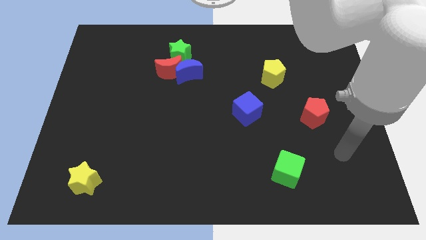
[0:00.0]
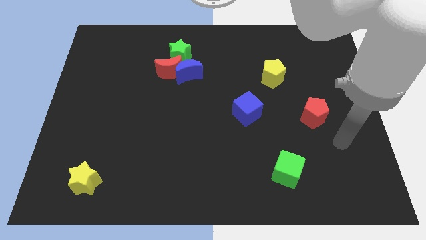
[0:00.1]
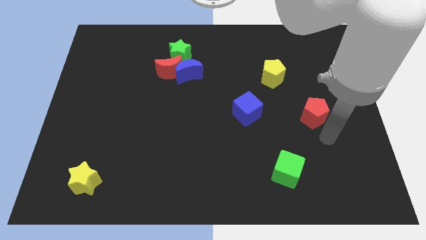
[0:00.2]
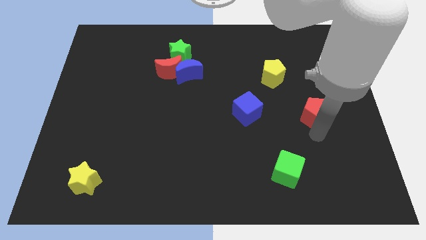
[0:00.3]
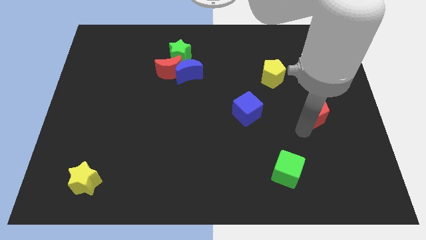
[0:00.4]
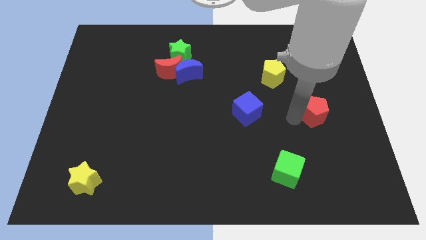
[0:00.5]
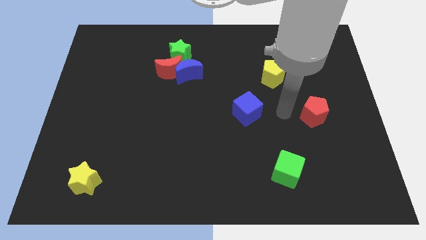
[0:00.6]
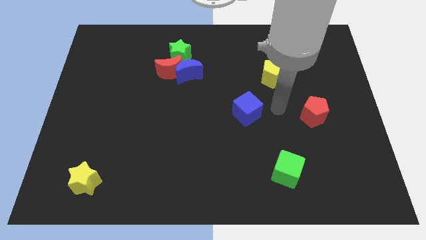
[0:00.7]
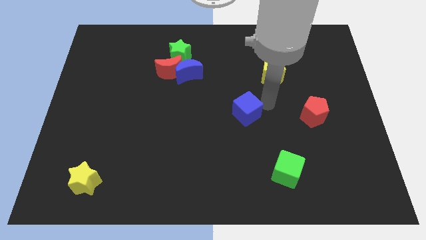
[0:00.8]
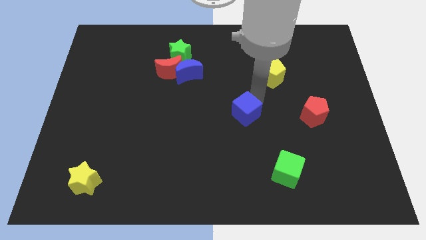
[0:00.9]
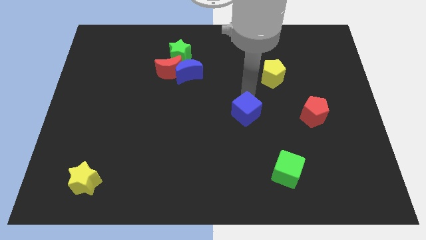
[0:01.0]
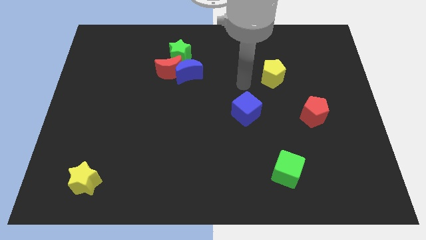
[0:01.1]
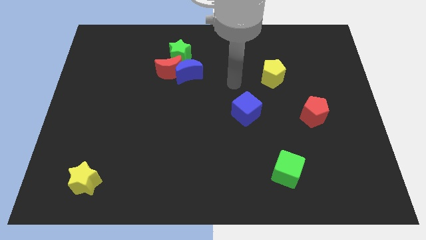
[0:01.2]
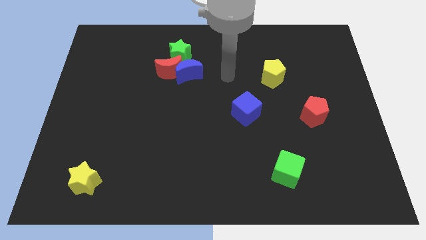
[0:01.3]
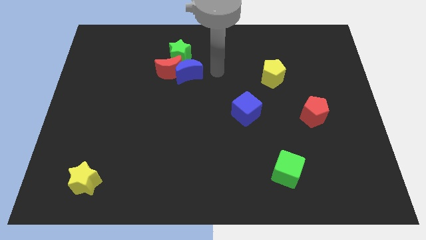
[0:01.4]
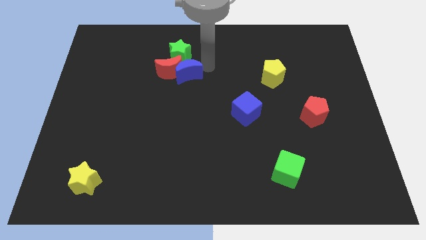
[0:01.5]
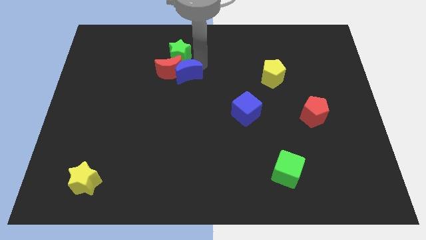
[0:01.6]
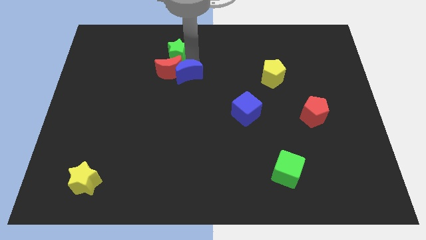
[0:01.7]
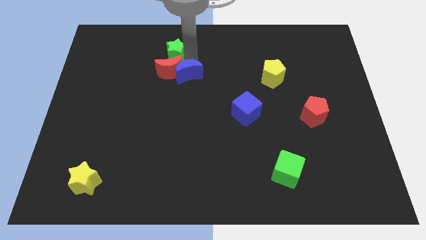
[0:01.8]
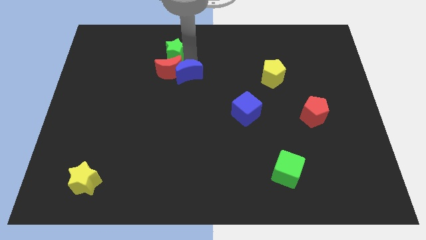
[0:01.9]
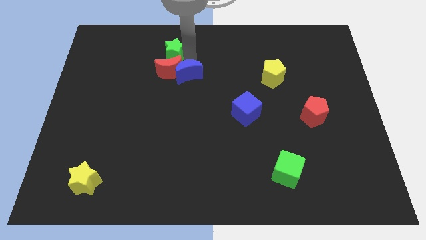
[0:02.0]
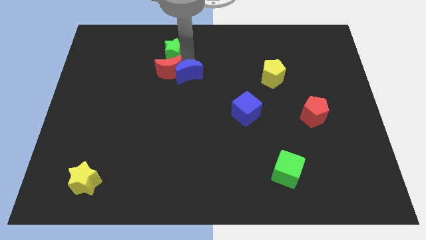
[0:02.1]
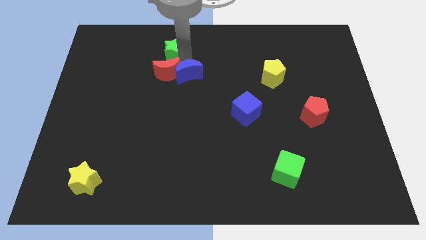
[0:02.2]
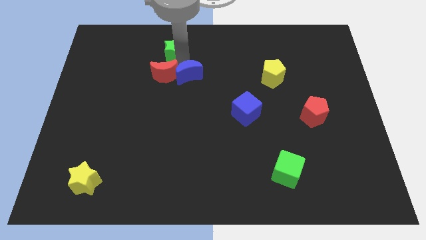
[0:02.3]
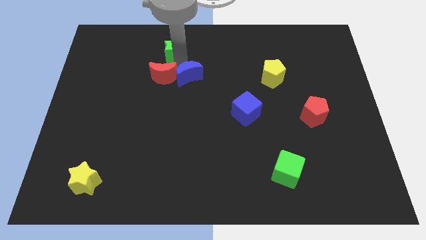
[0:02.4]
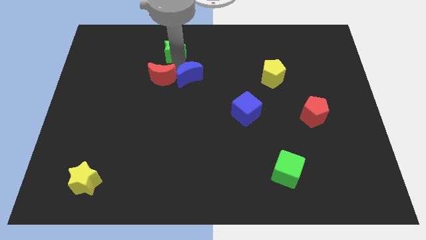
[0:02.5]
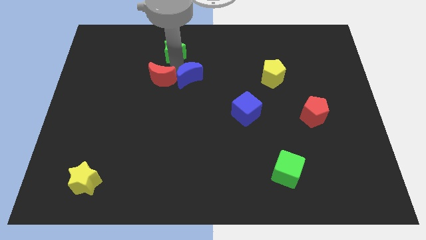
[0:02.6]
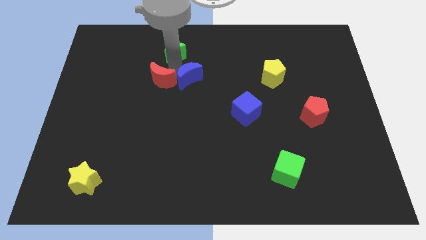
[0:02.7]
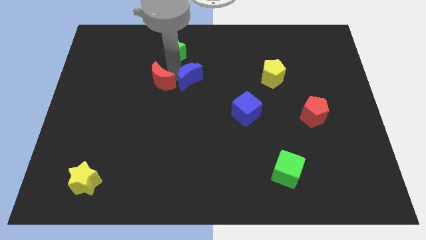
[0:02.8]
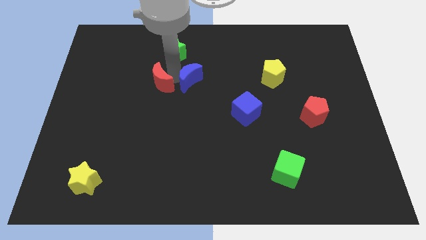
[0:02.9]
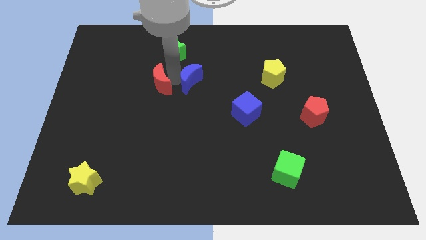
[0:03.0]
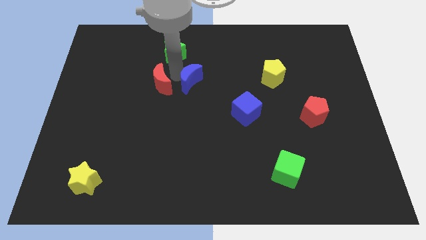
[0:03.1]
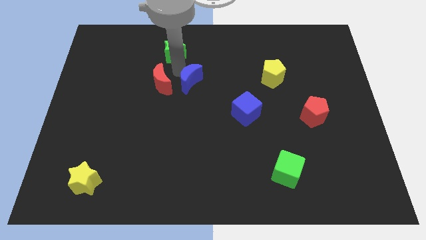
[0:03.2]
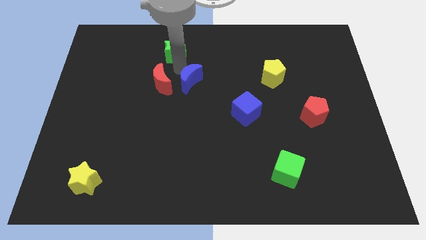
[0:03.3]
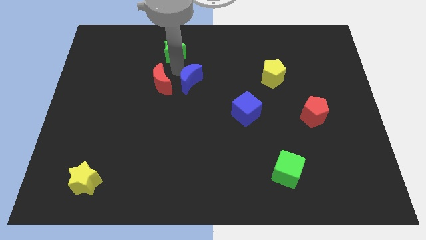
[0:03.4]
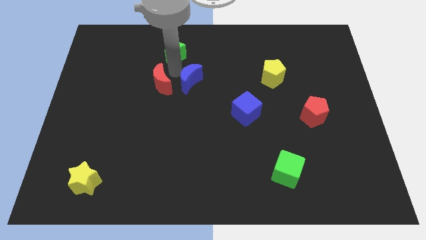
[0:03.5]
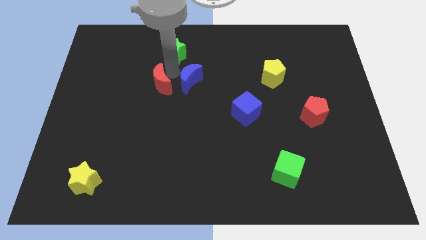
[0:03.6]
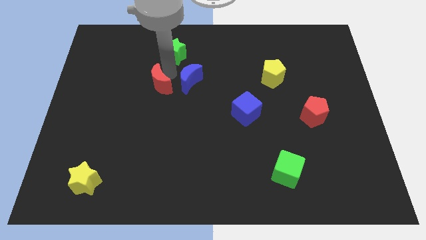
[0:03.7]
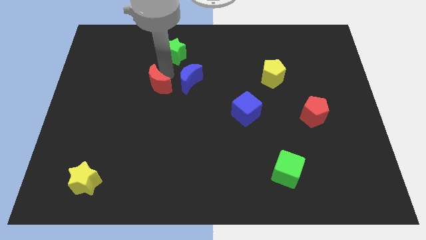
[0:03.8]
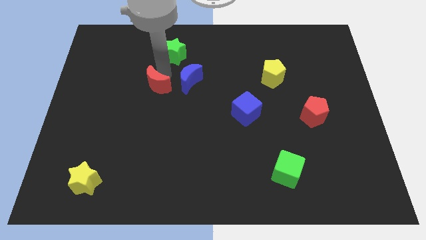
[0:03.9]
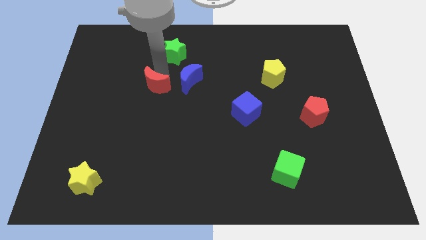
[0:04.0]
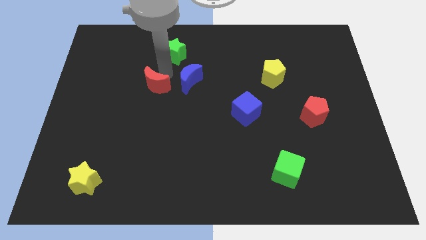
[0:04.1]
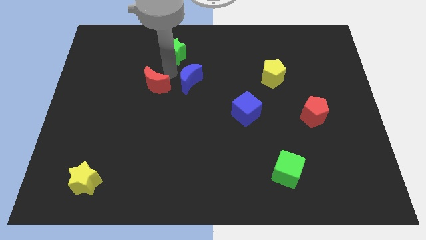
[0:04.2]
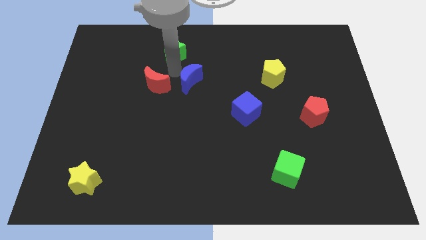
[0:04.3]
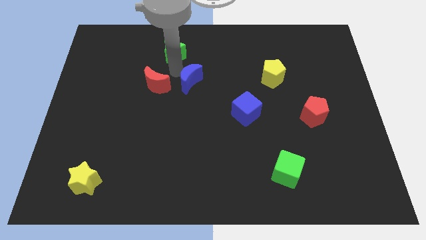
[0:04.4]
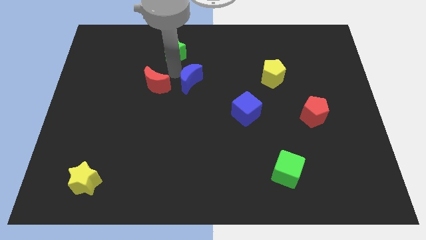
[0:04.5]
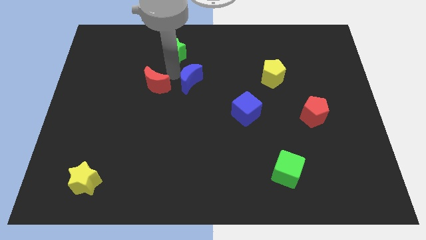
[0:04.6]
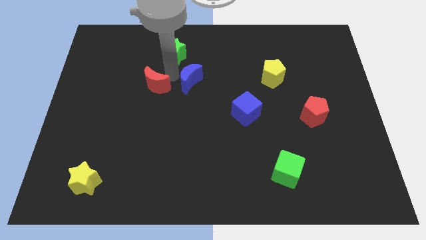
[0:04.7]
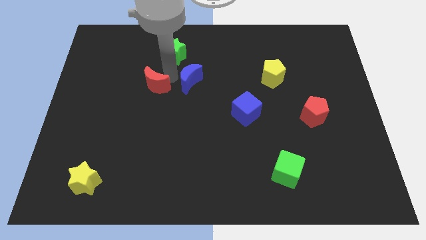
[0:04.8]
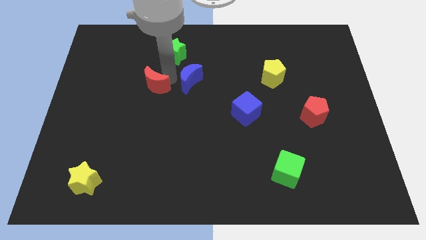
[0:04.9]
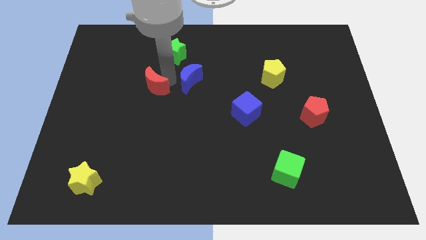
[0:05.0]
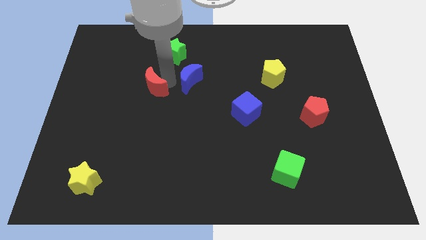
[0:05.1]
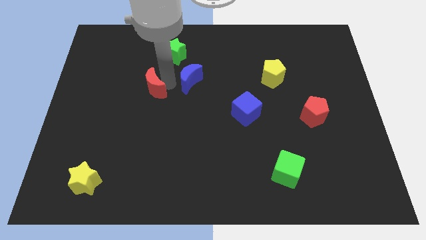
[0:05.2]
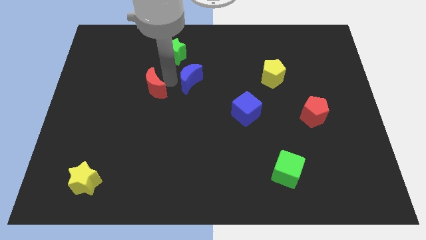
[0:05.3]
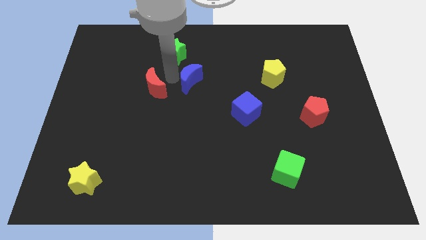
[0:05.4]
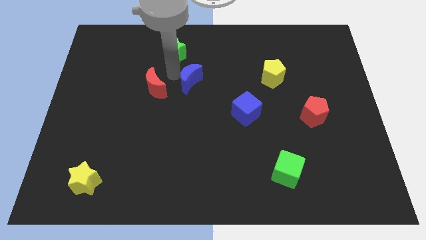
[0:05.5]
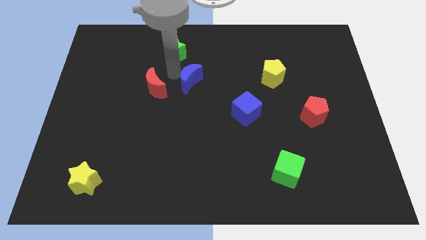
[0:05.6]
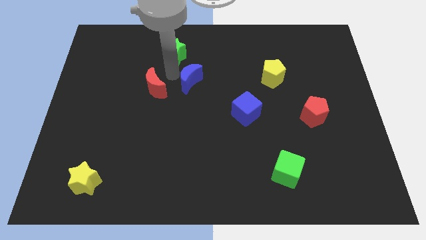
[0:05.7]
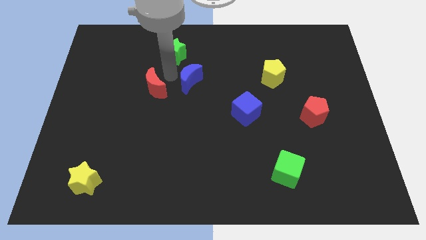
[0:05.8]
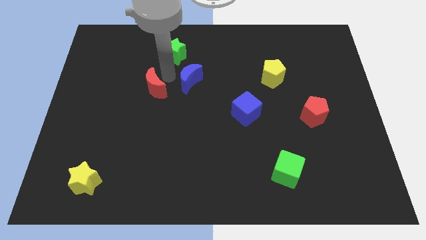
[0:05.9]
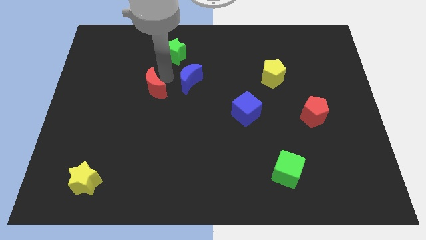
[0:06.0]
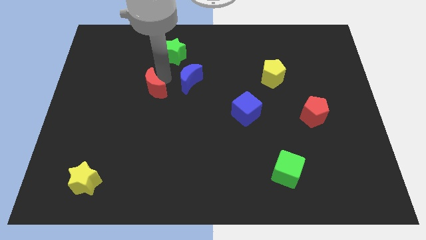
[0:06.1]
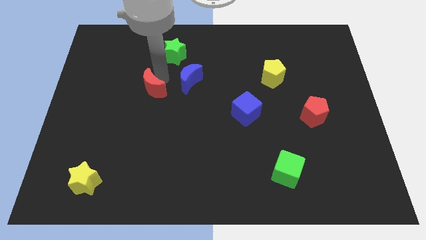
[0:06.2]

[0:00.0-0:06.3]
pull the red moon apart from the blue moon and green star

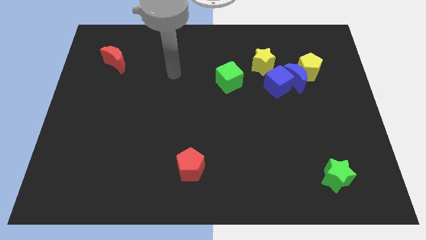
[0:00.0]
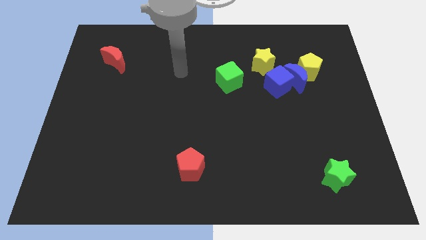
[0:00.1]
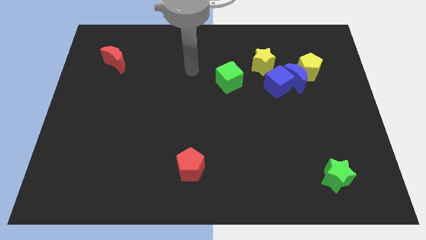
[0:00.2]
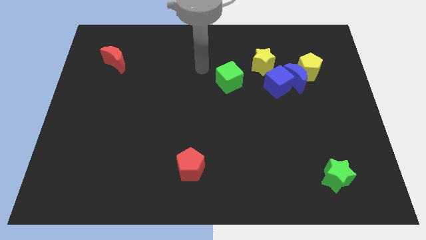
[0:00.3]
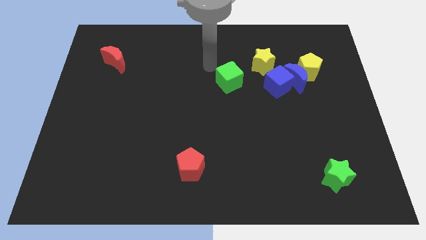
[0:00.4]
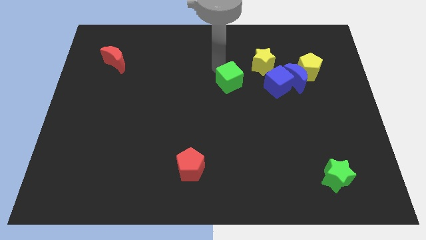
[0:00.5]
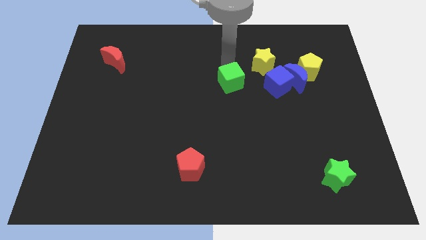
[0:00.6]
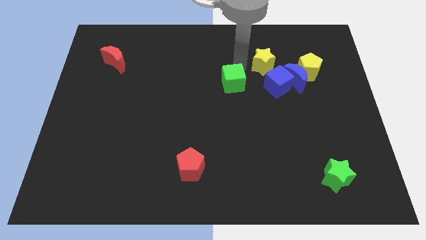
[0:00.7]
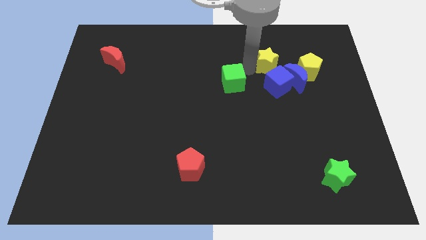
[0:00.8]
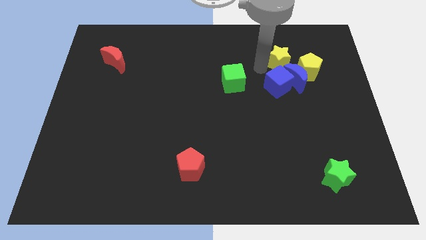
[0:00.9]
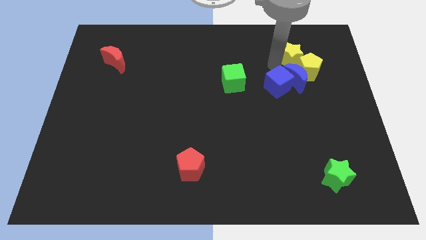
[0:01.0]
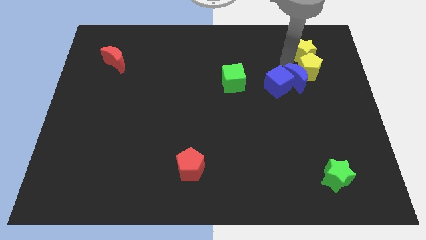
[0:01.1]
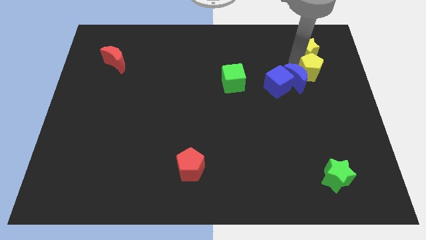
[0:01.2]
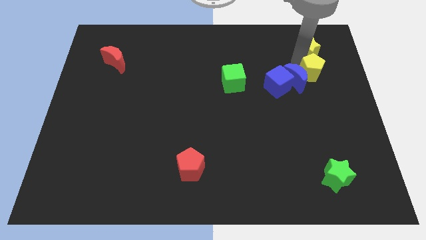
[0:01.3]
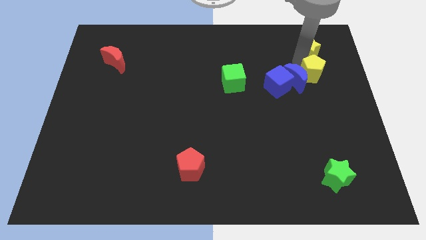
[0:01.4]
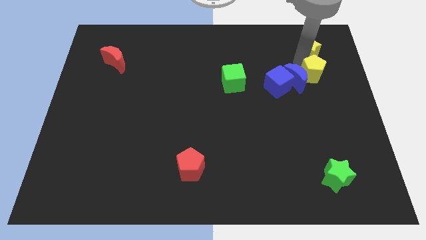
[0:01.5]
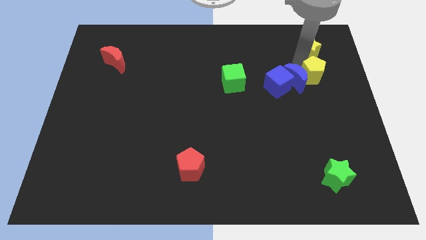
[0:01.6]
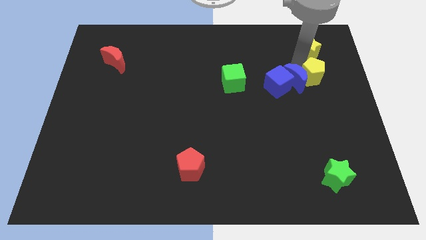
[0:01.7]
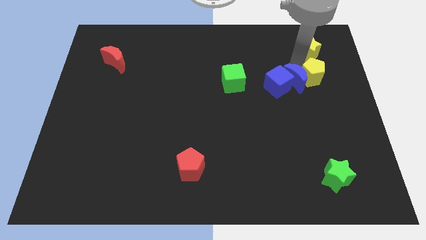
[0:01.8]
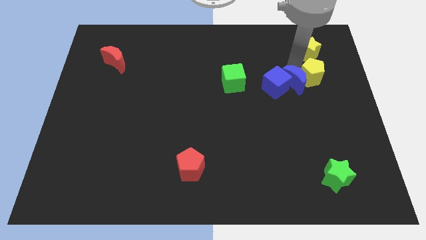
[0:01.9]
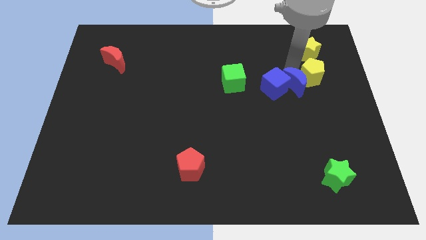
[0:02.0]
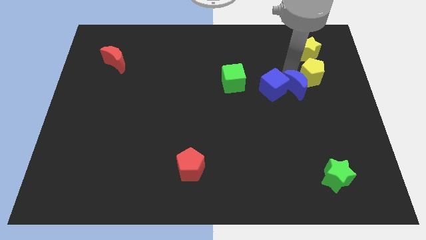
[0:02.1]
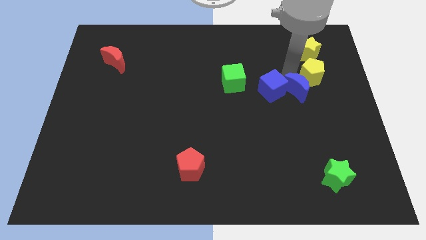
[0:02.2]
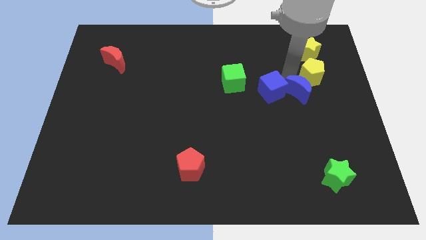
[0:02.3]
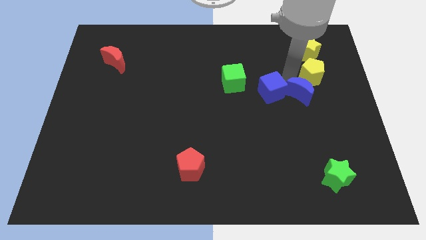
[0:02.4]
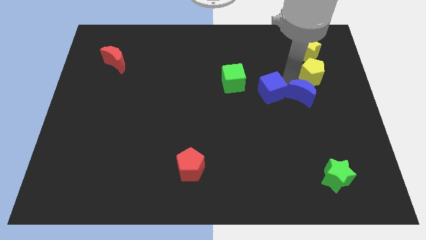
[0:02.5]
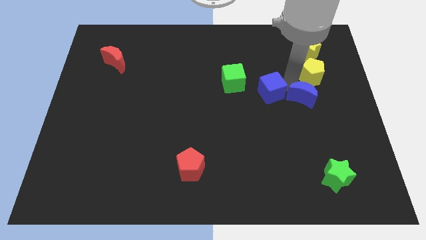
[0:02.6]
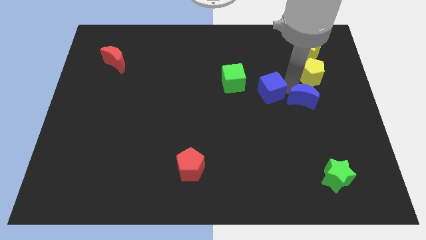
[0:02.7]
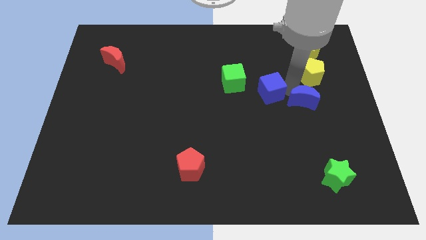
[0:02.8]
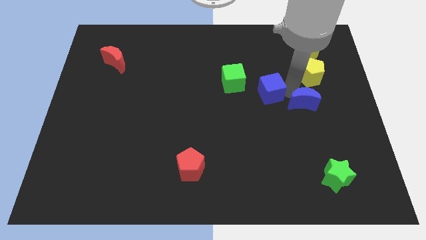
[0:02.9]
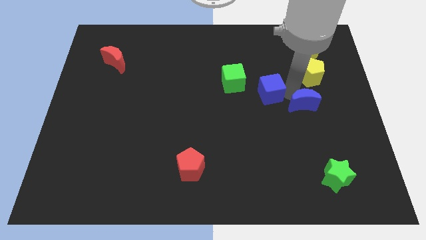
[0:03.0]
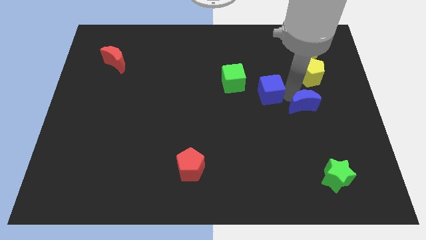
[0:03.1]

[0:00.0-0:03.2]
move the blue moon away from the blue cube, yellow pentagon, and yellow star
